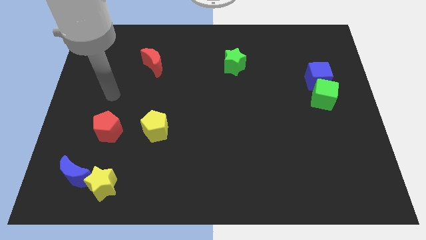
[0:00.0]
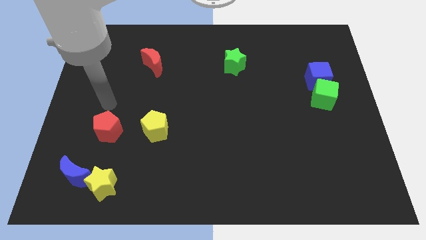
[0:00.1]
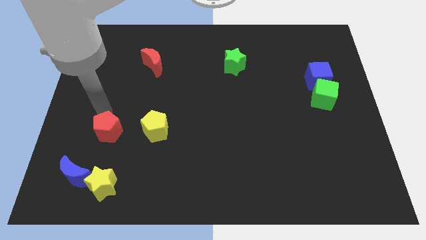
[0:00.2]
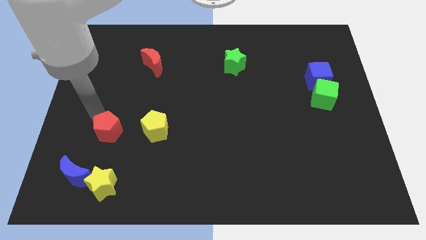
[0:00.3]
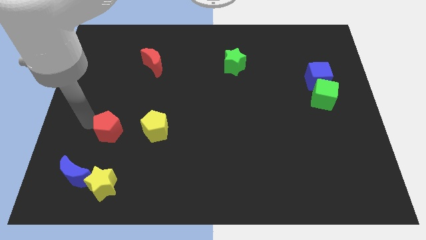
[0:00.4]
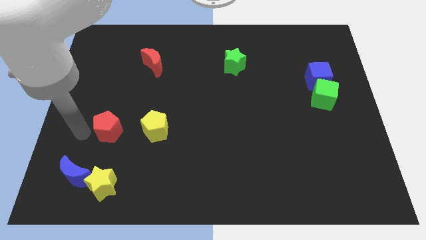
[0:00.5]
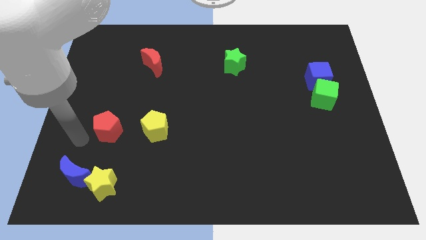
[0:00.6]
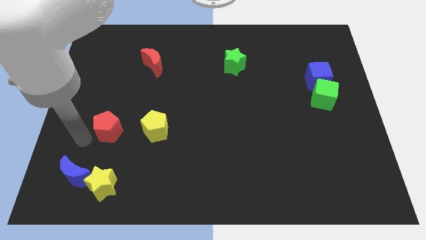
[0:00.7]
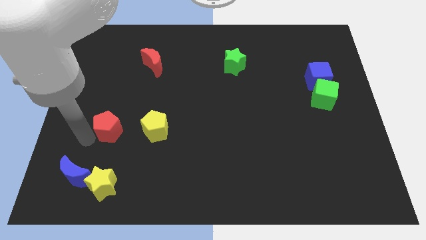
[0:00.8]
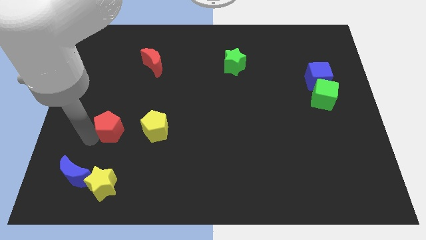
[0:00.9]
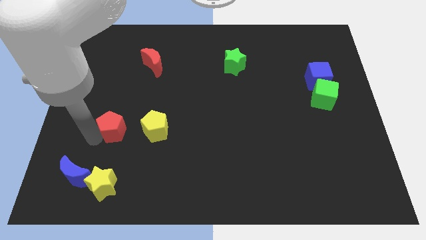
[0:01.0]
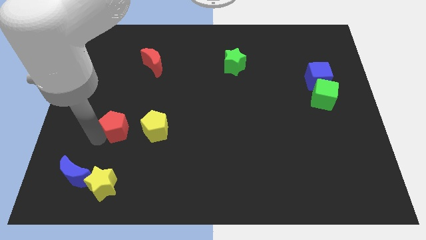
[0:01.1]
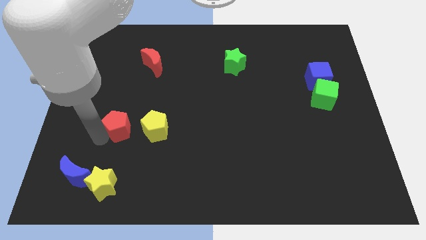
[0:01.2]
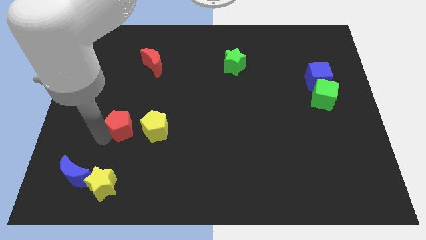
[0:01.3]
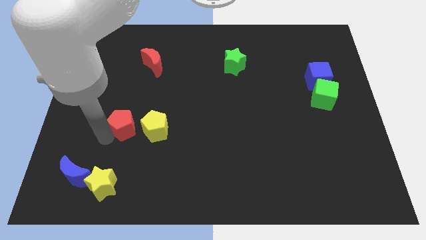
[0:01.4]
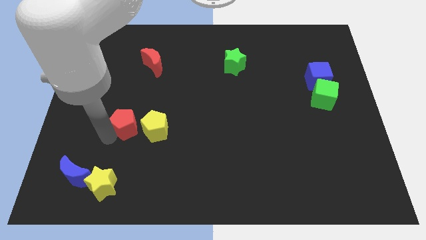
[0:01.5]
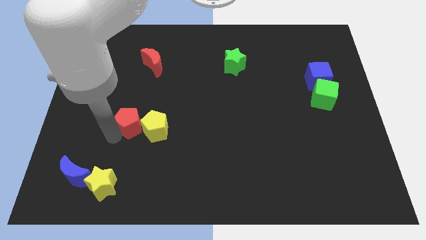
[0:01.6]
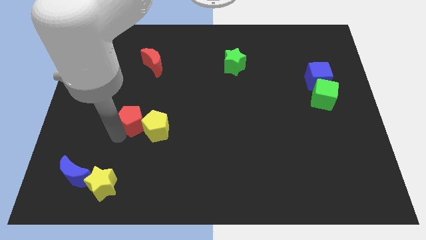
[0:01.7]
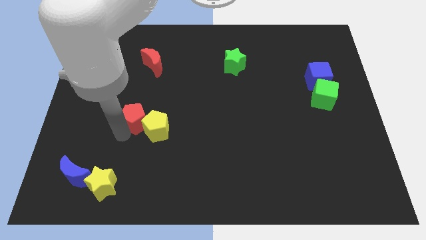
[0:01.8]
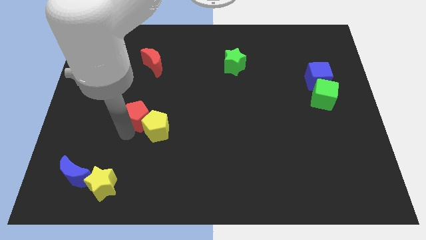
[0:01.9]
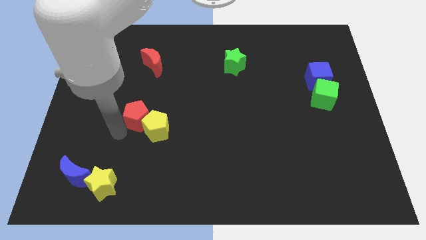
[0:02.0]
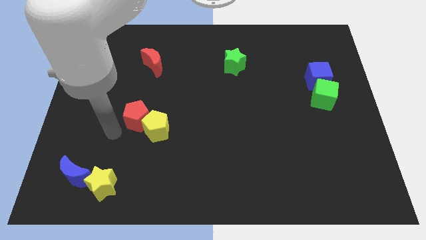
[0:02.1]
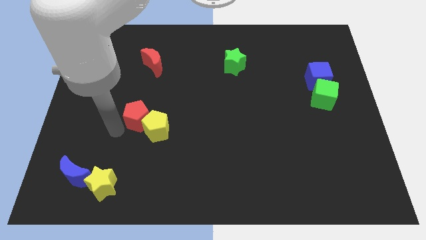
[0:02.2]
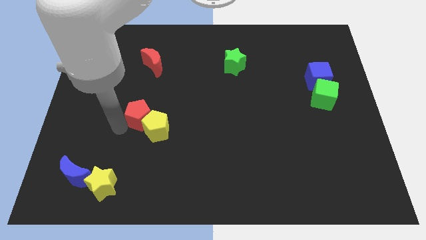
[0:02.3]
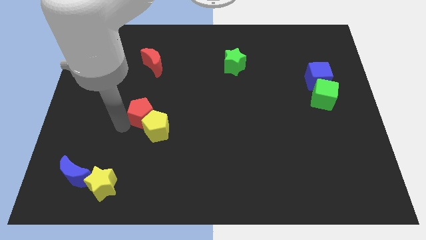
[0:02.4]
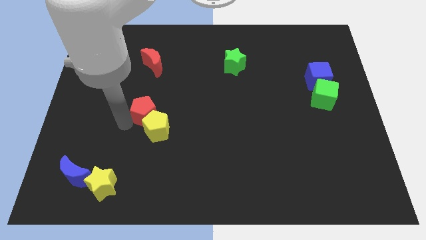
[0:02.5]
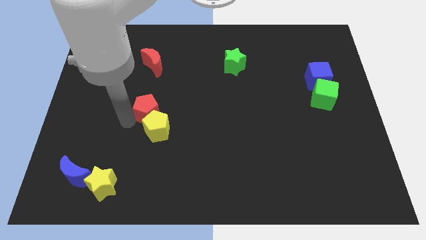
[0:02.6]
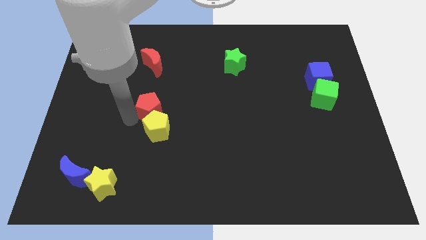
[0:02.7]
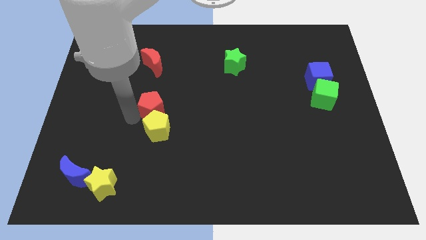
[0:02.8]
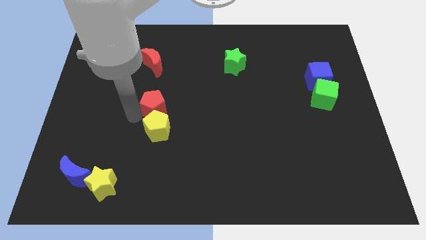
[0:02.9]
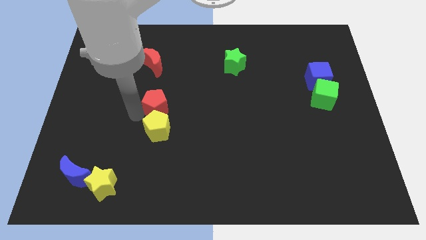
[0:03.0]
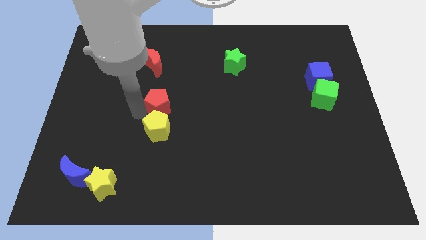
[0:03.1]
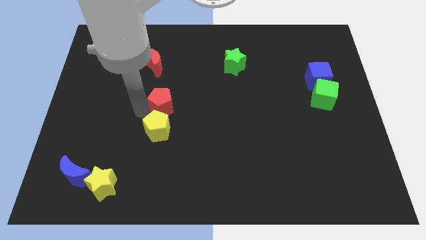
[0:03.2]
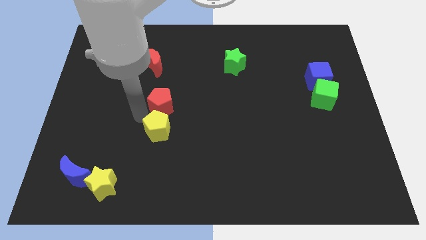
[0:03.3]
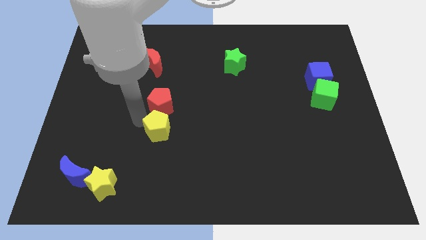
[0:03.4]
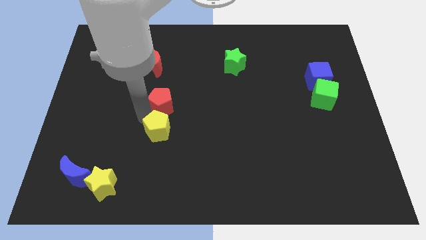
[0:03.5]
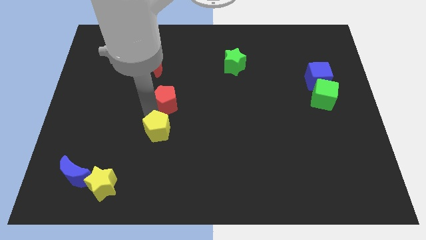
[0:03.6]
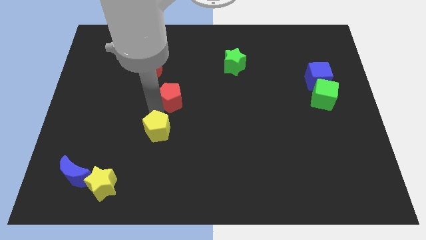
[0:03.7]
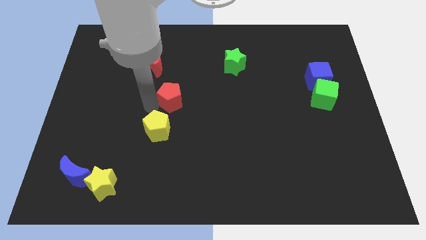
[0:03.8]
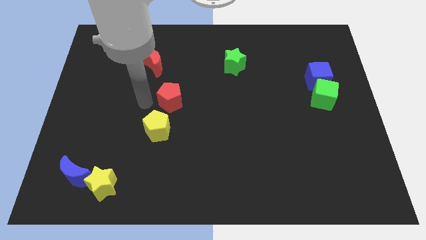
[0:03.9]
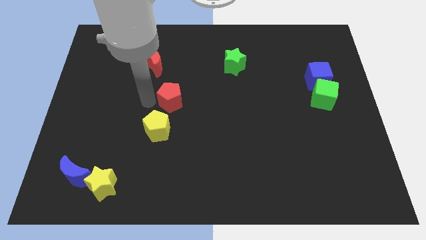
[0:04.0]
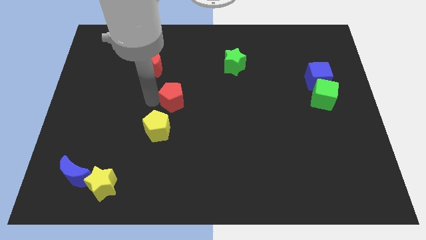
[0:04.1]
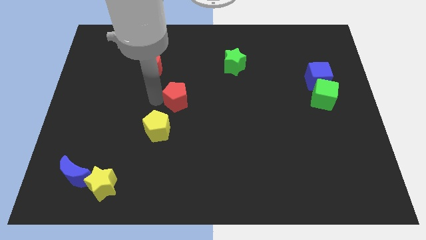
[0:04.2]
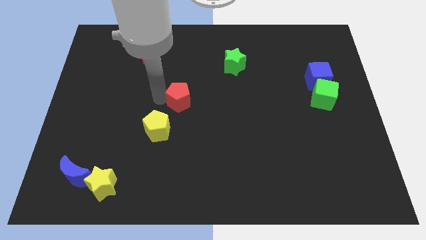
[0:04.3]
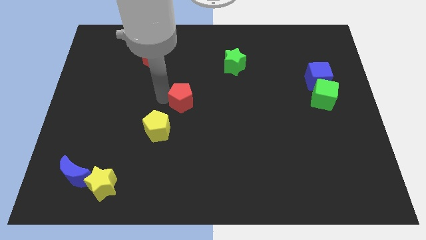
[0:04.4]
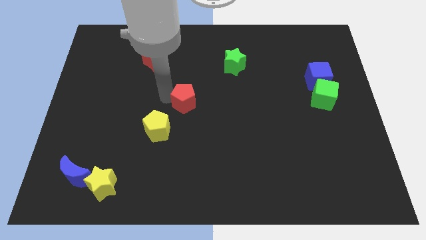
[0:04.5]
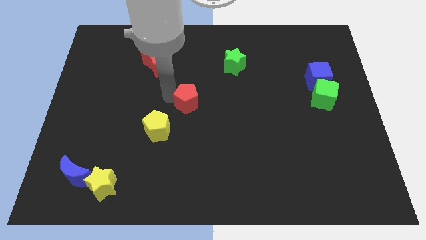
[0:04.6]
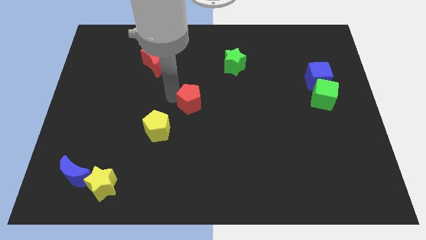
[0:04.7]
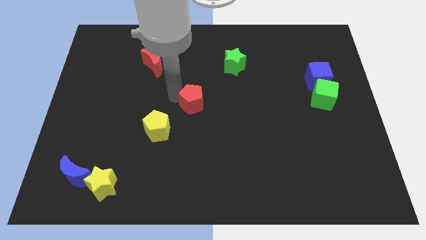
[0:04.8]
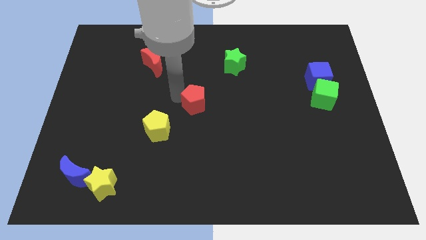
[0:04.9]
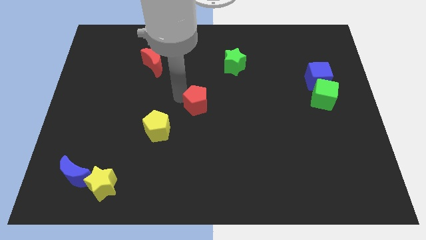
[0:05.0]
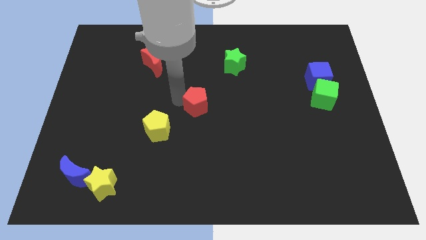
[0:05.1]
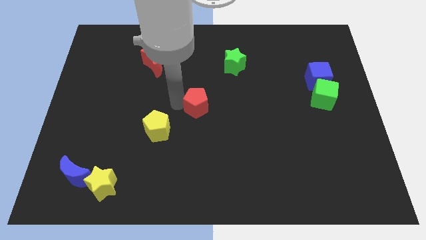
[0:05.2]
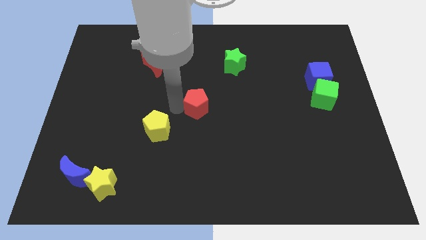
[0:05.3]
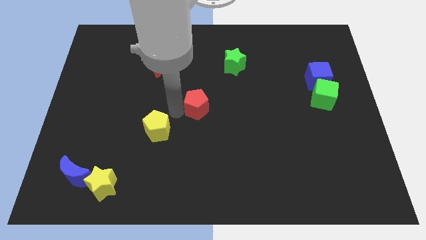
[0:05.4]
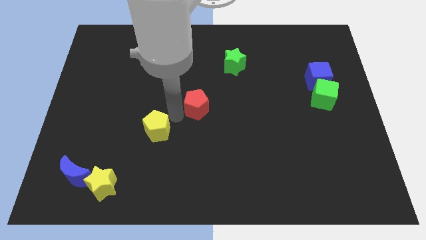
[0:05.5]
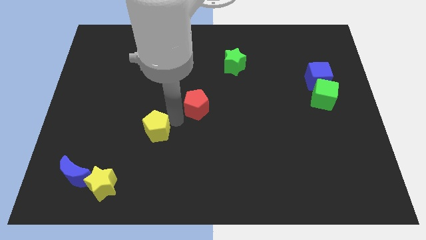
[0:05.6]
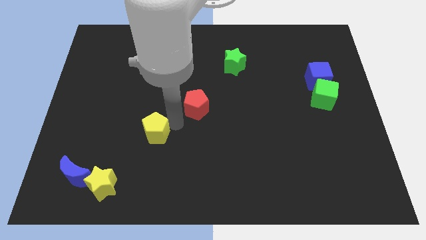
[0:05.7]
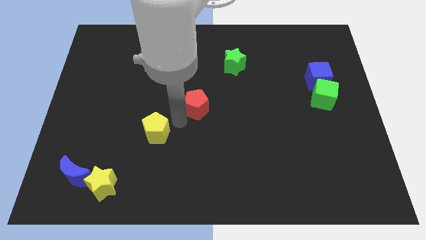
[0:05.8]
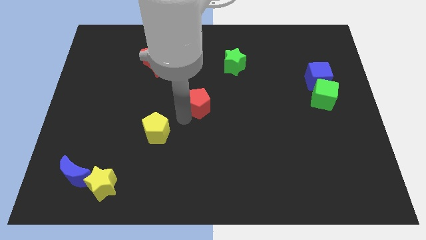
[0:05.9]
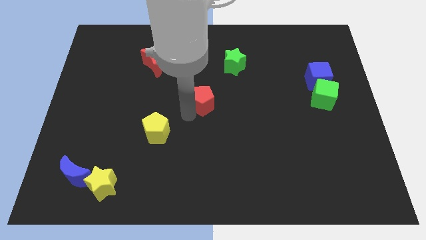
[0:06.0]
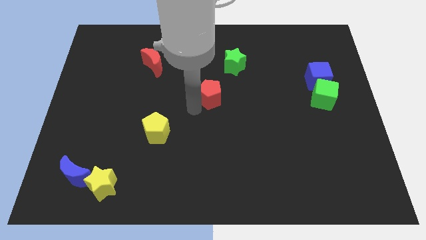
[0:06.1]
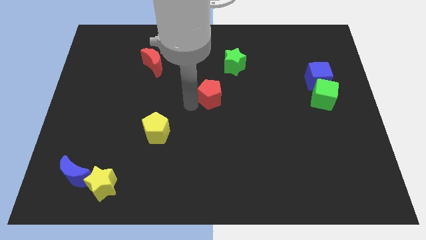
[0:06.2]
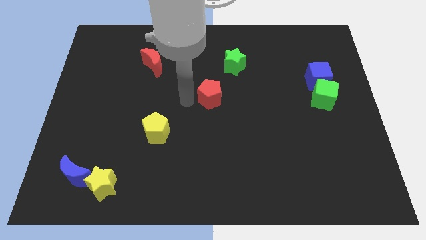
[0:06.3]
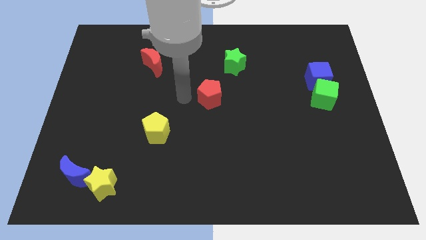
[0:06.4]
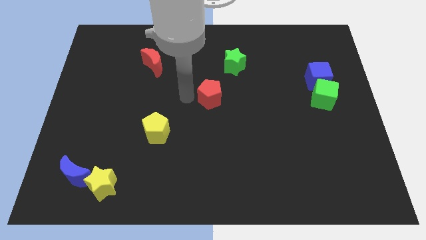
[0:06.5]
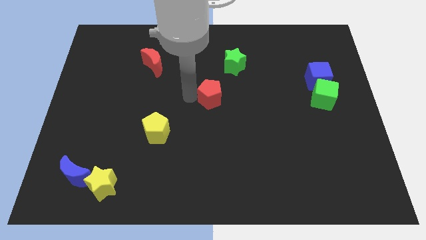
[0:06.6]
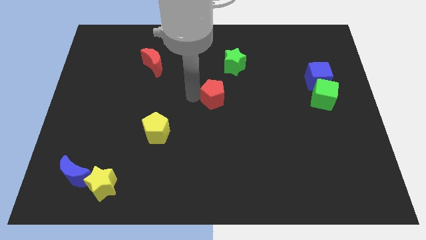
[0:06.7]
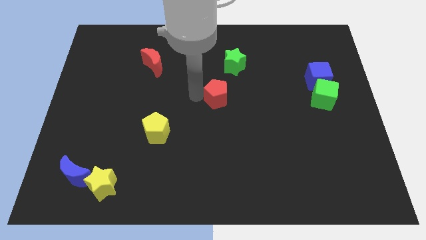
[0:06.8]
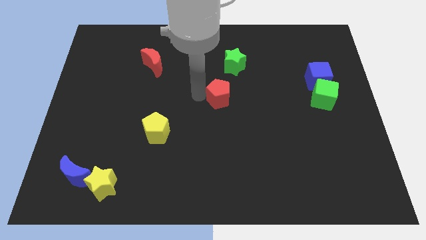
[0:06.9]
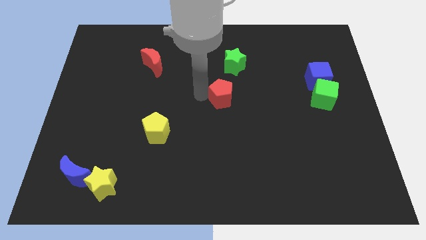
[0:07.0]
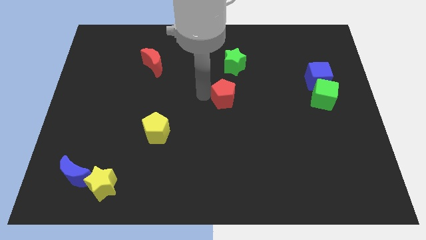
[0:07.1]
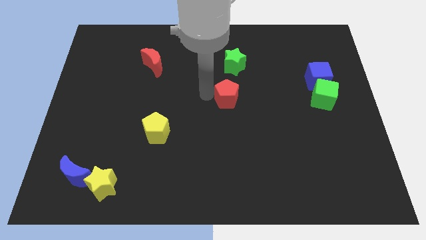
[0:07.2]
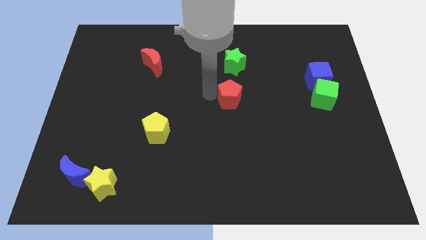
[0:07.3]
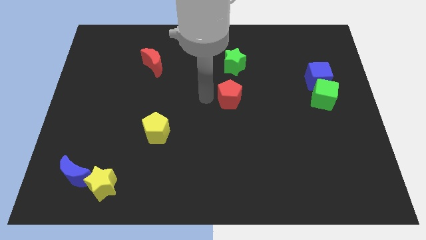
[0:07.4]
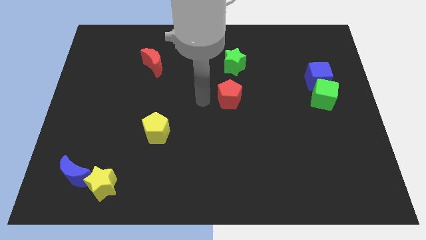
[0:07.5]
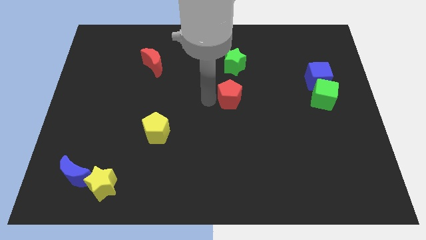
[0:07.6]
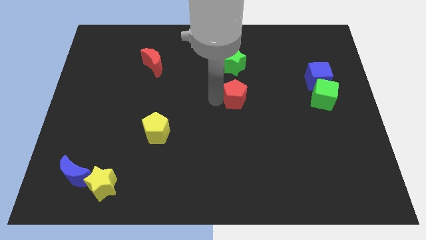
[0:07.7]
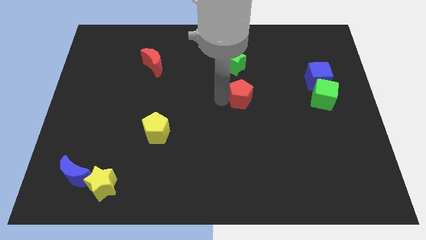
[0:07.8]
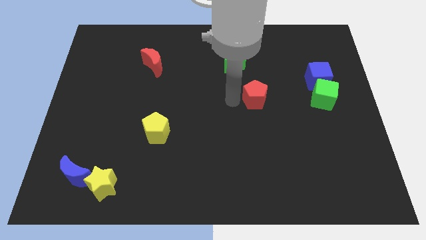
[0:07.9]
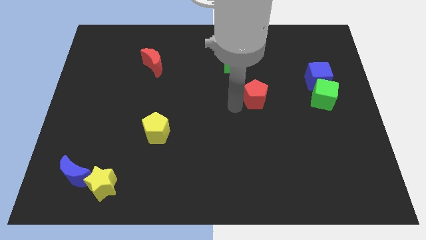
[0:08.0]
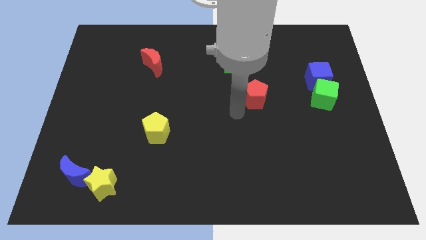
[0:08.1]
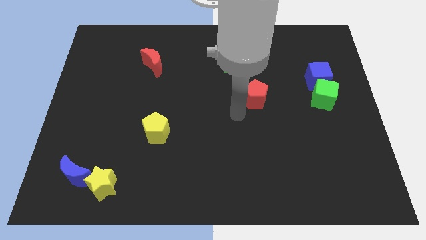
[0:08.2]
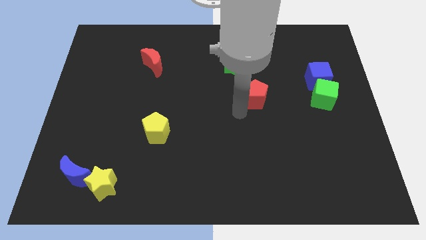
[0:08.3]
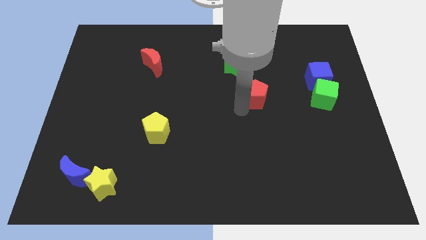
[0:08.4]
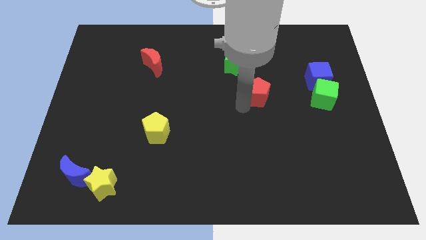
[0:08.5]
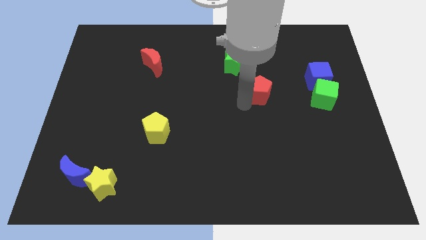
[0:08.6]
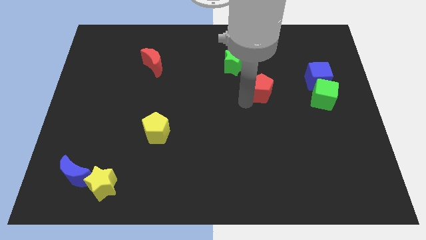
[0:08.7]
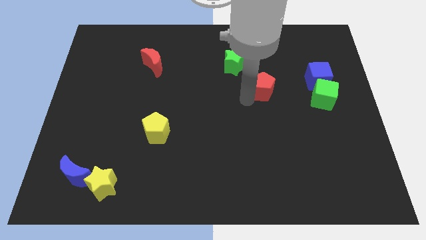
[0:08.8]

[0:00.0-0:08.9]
slide the red pentagon to the left of the blue cube
